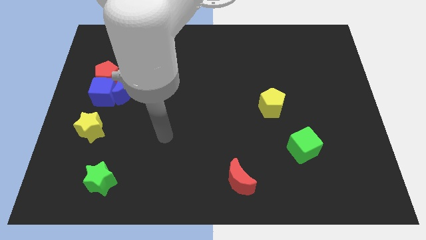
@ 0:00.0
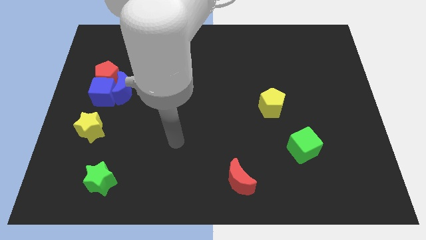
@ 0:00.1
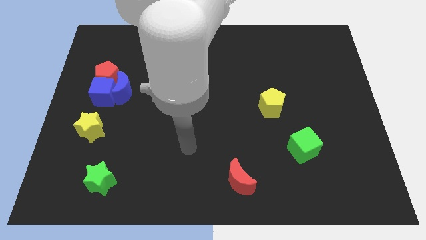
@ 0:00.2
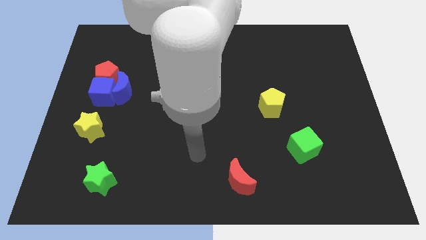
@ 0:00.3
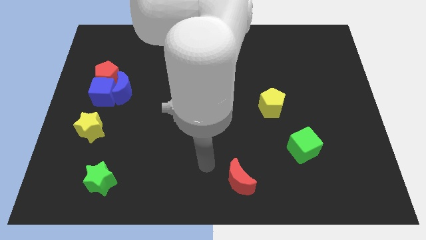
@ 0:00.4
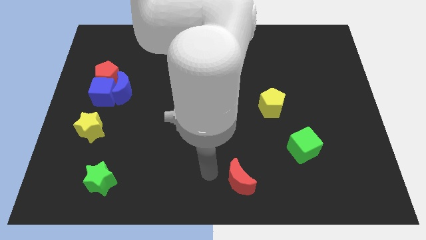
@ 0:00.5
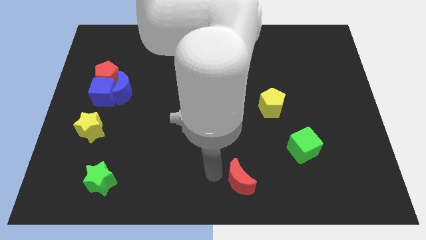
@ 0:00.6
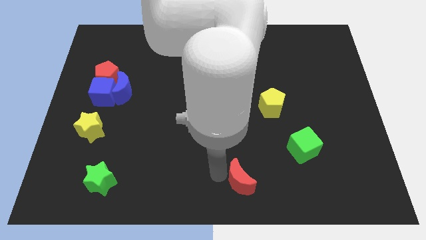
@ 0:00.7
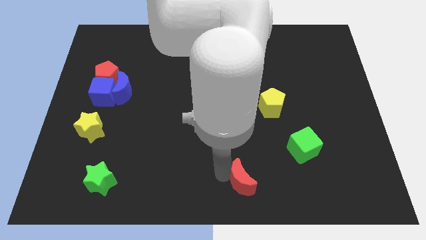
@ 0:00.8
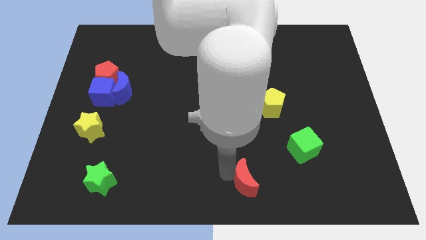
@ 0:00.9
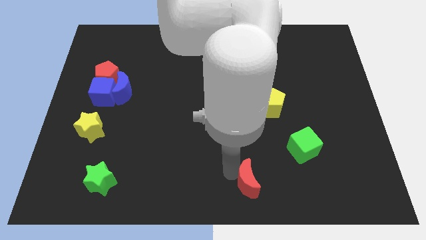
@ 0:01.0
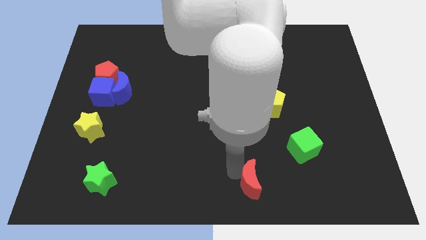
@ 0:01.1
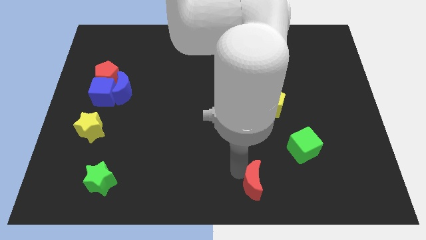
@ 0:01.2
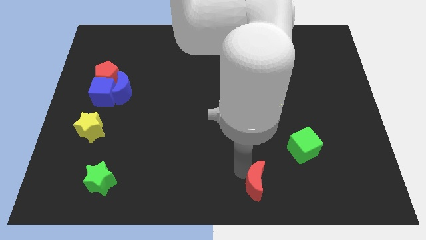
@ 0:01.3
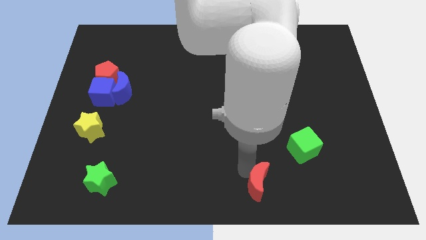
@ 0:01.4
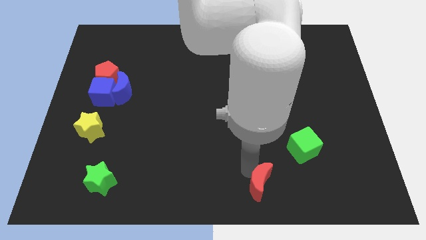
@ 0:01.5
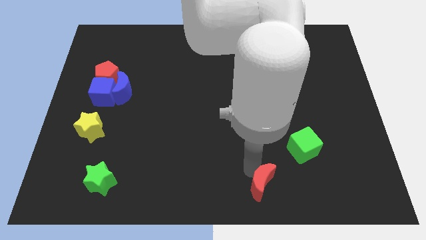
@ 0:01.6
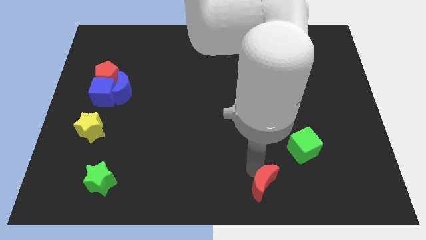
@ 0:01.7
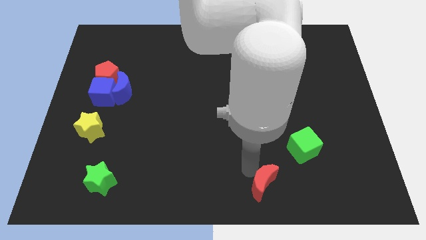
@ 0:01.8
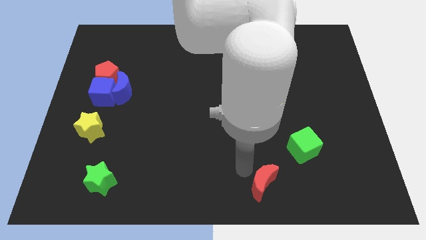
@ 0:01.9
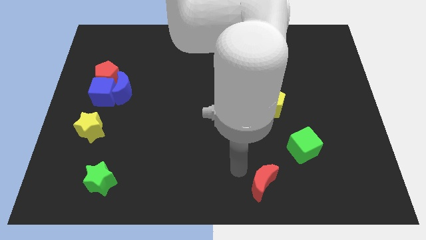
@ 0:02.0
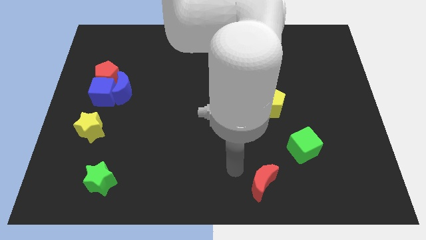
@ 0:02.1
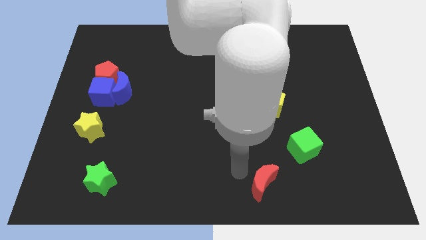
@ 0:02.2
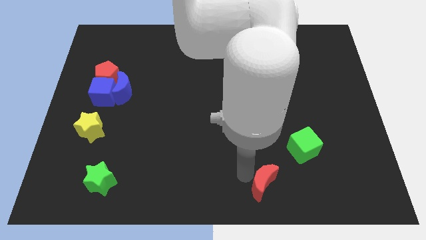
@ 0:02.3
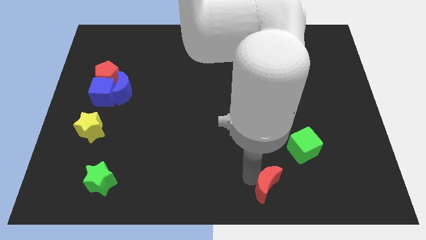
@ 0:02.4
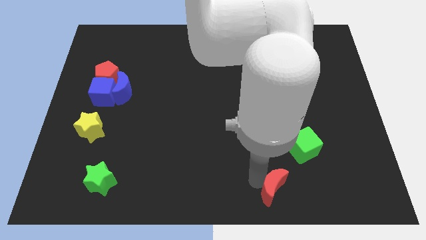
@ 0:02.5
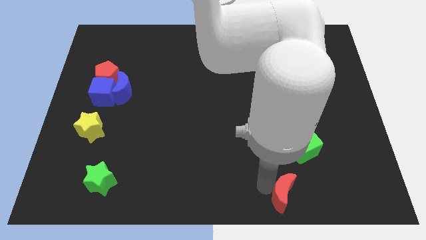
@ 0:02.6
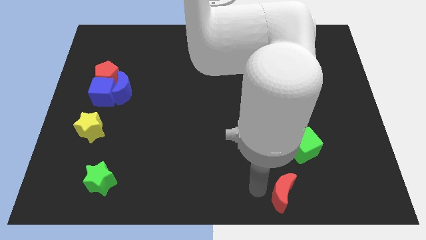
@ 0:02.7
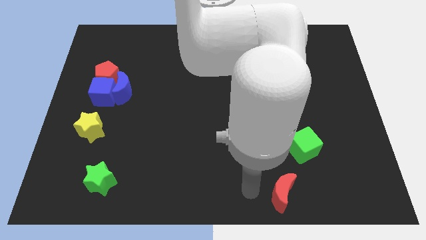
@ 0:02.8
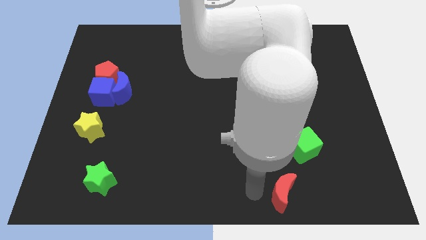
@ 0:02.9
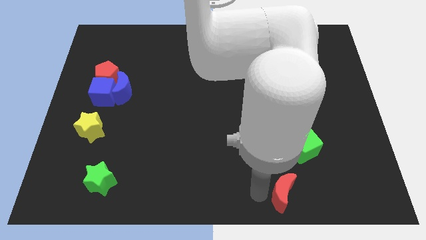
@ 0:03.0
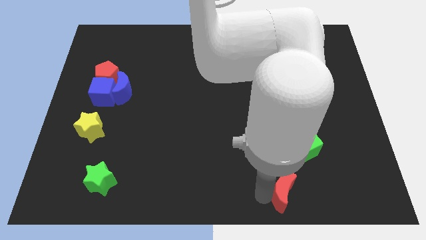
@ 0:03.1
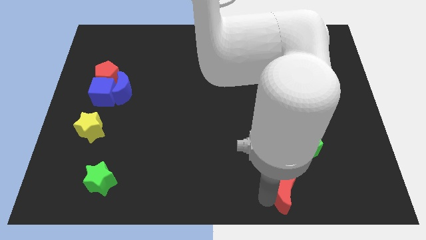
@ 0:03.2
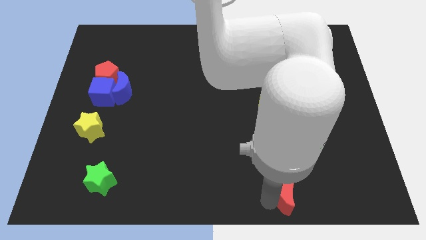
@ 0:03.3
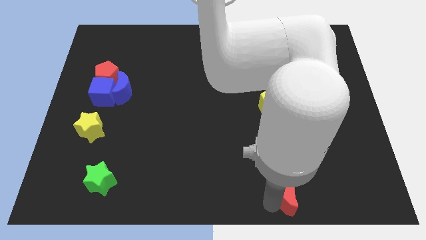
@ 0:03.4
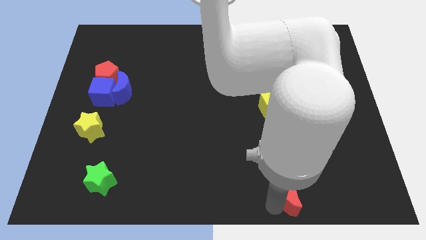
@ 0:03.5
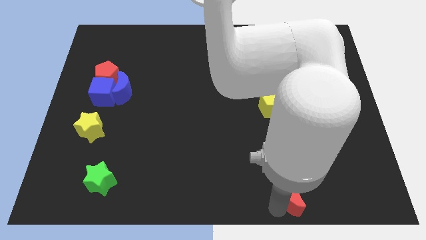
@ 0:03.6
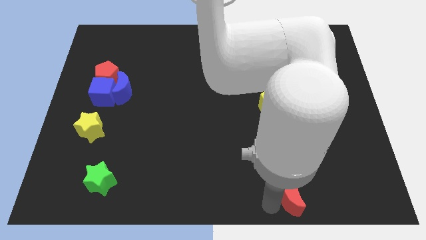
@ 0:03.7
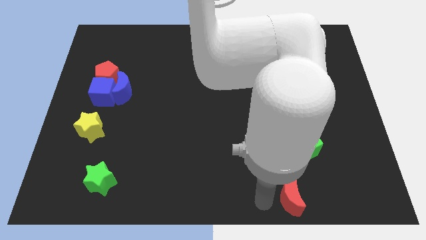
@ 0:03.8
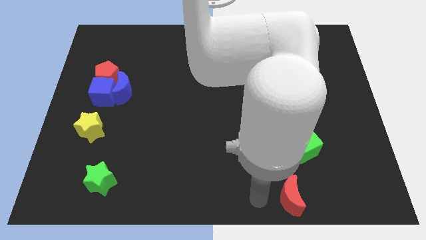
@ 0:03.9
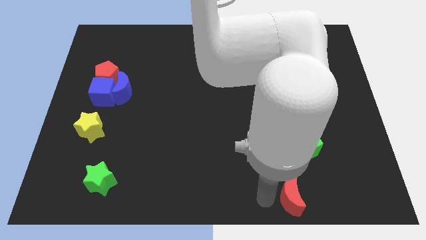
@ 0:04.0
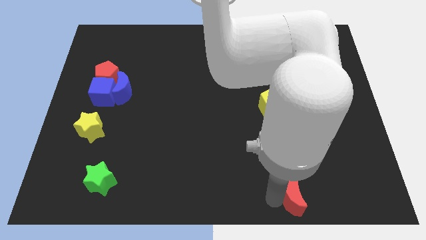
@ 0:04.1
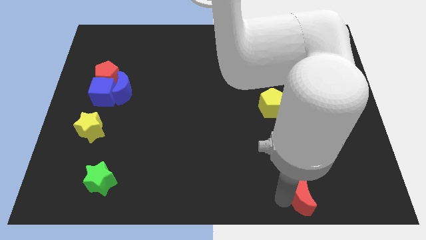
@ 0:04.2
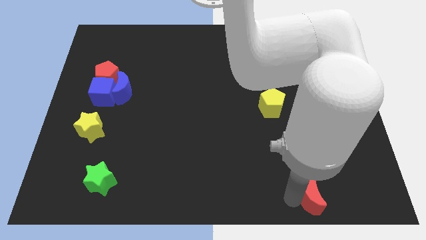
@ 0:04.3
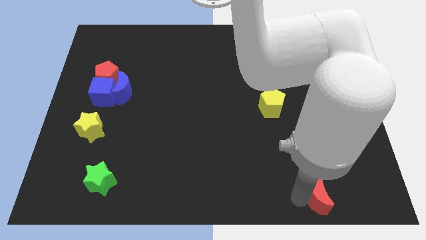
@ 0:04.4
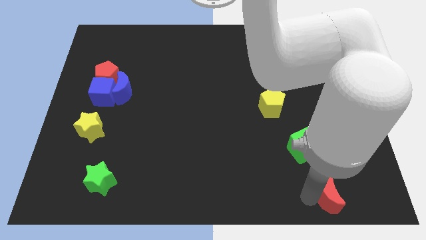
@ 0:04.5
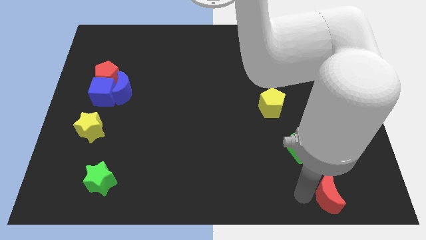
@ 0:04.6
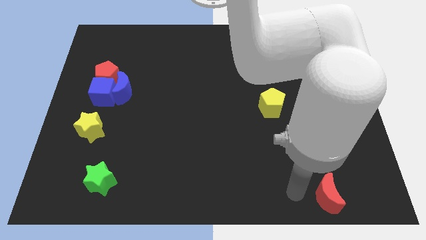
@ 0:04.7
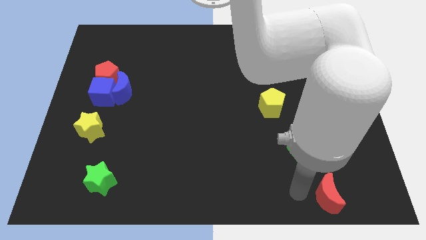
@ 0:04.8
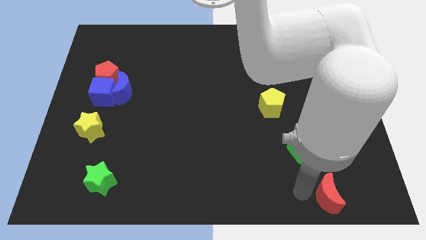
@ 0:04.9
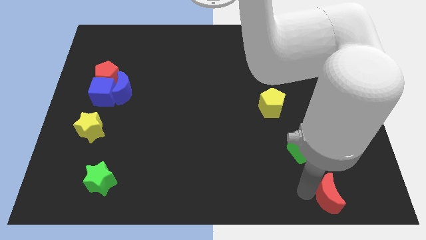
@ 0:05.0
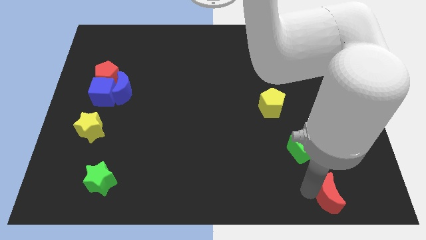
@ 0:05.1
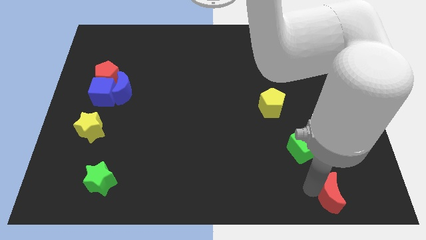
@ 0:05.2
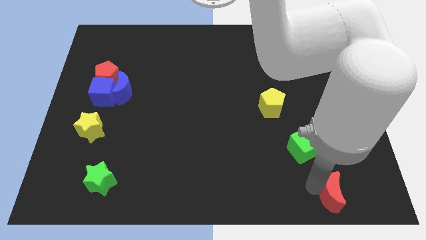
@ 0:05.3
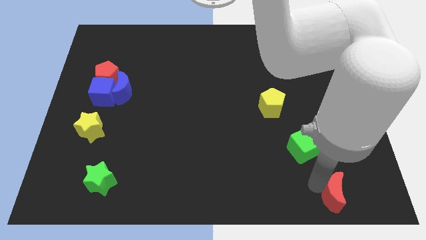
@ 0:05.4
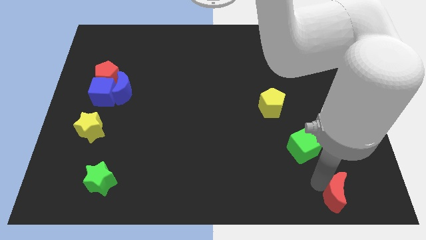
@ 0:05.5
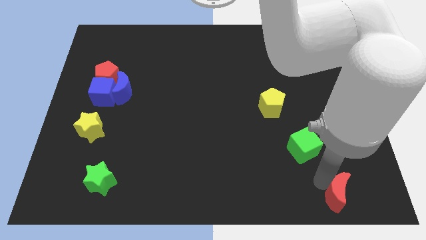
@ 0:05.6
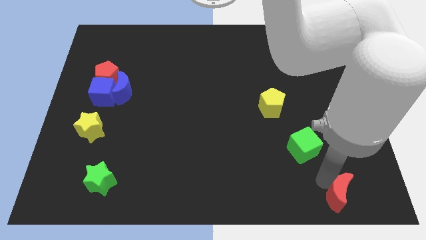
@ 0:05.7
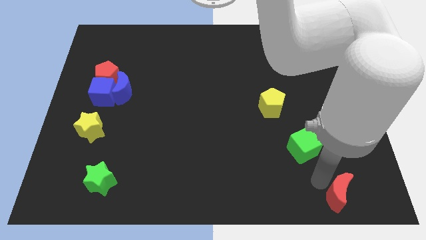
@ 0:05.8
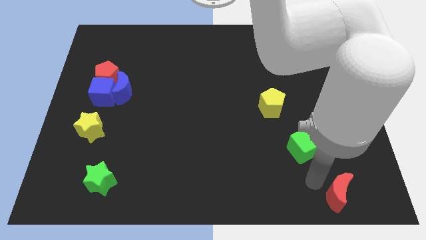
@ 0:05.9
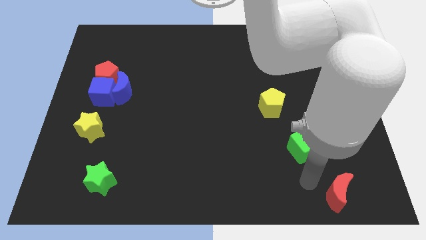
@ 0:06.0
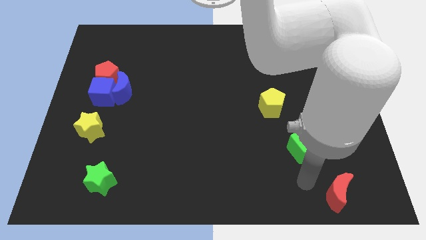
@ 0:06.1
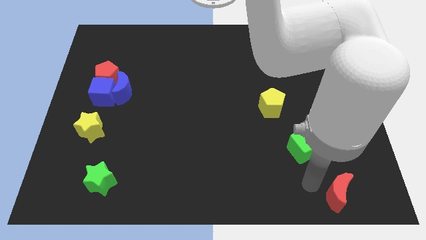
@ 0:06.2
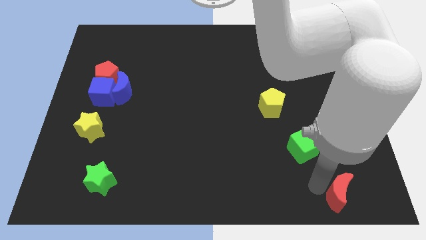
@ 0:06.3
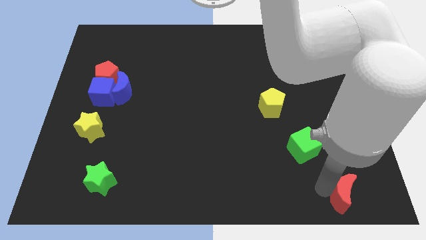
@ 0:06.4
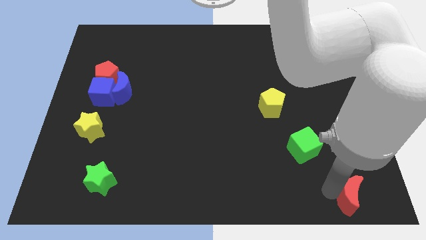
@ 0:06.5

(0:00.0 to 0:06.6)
move the red moon to the lower right corner

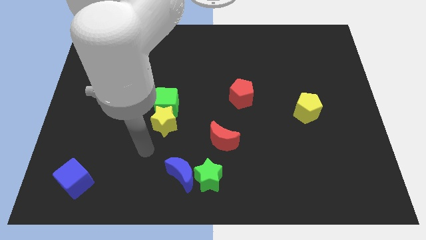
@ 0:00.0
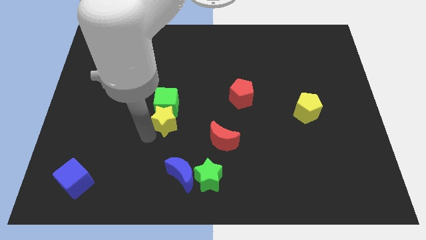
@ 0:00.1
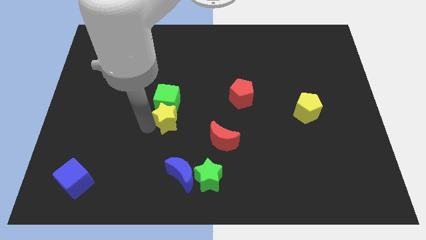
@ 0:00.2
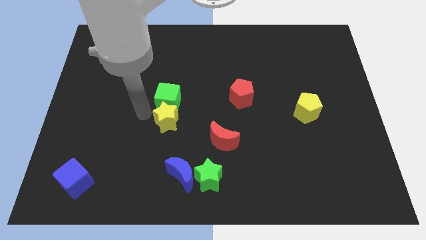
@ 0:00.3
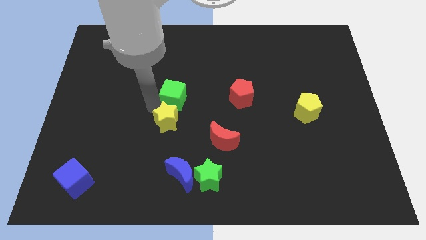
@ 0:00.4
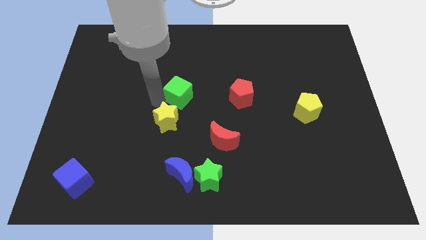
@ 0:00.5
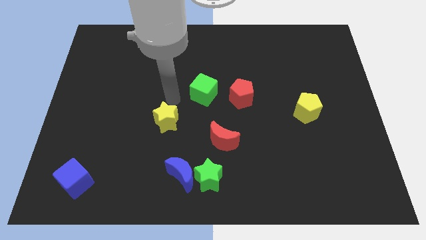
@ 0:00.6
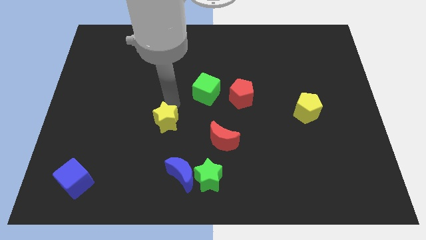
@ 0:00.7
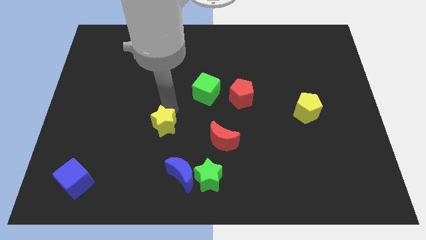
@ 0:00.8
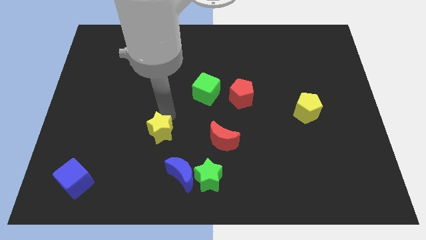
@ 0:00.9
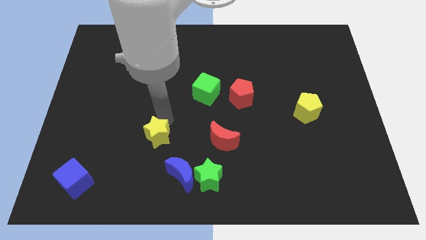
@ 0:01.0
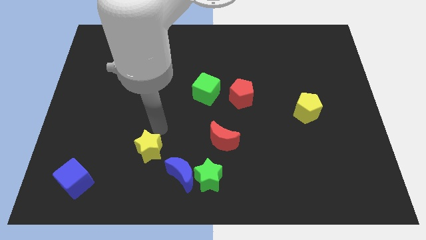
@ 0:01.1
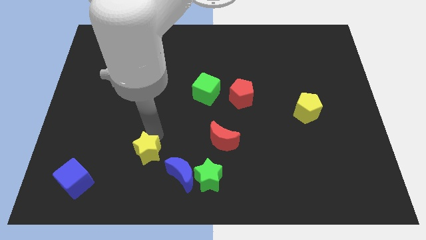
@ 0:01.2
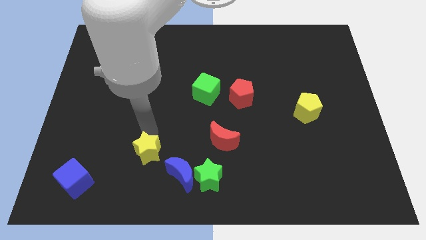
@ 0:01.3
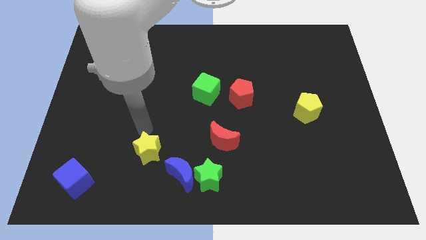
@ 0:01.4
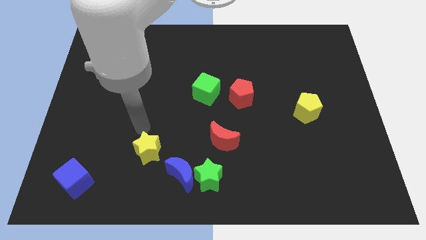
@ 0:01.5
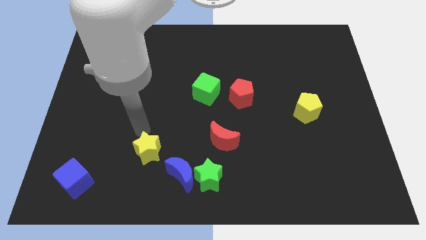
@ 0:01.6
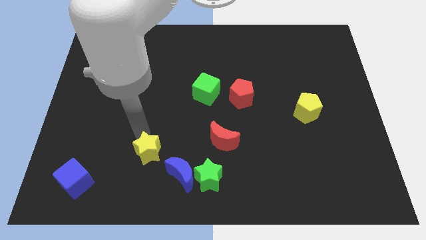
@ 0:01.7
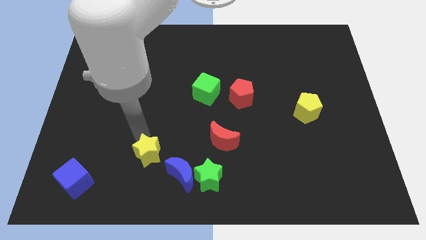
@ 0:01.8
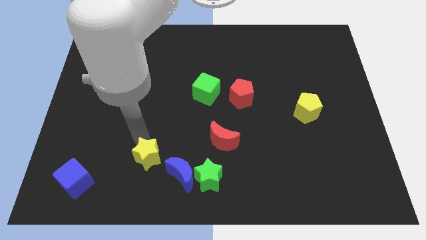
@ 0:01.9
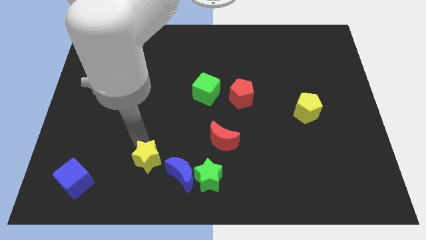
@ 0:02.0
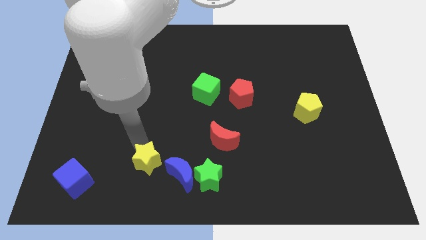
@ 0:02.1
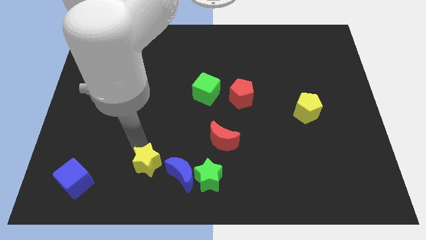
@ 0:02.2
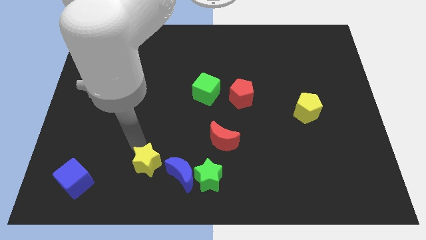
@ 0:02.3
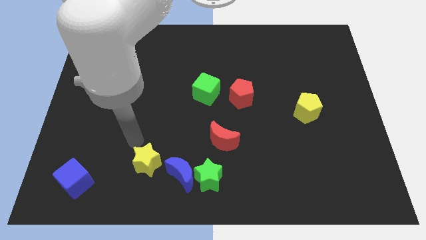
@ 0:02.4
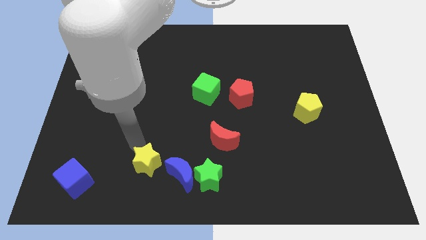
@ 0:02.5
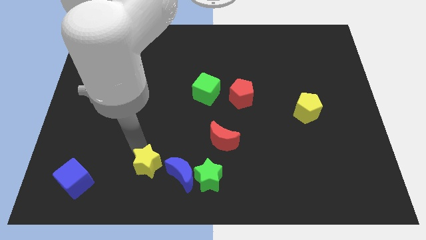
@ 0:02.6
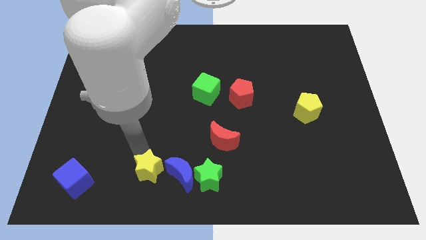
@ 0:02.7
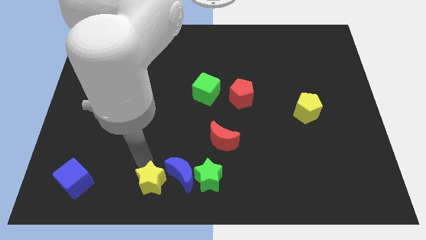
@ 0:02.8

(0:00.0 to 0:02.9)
put the yellow star to the bottom side
